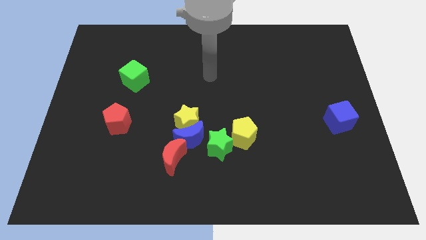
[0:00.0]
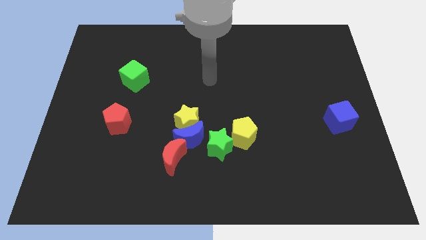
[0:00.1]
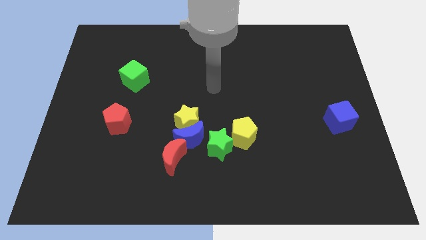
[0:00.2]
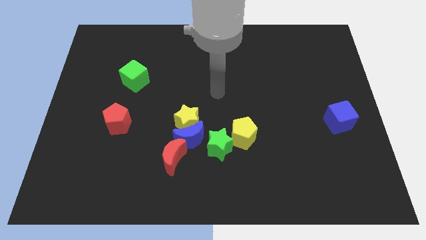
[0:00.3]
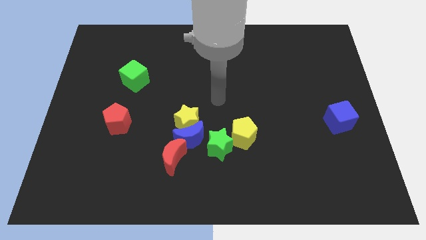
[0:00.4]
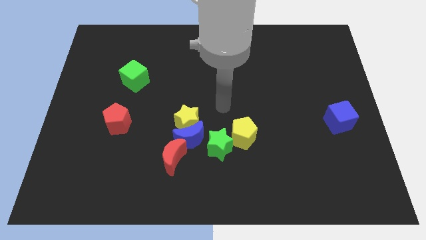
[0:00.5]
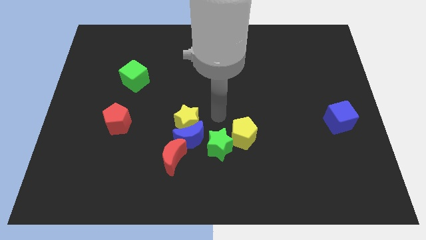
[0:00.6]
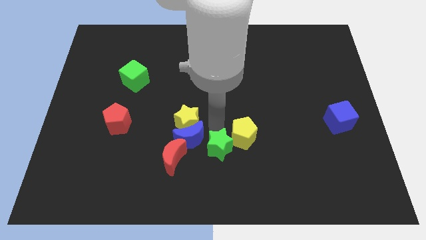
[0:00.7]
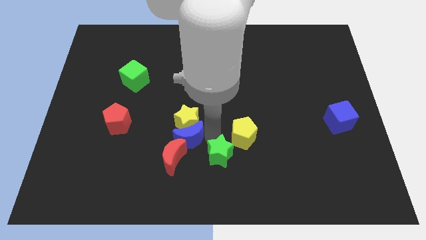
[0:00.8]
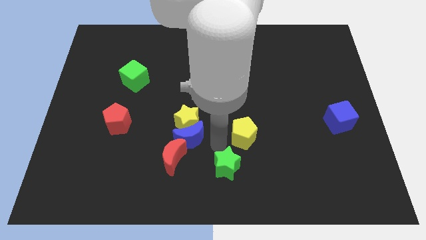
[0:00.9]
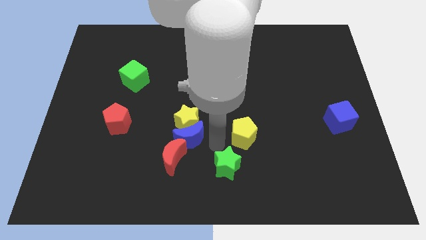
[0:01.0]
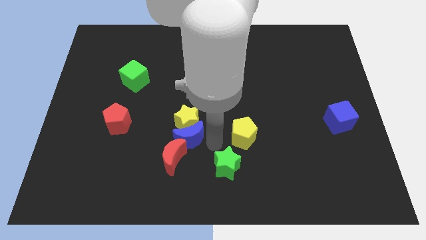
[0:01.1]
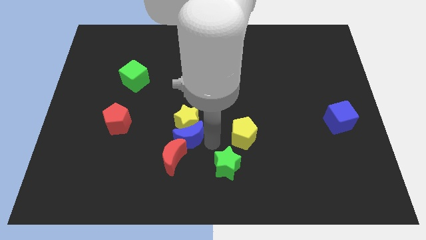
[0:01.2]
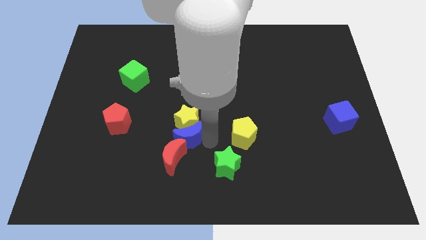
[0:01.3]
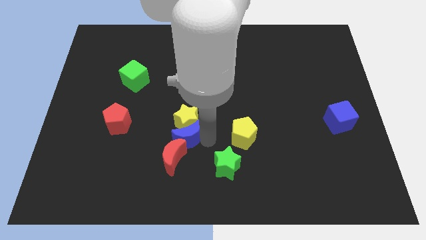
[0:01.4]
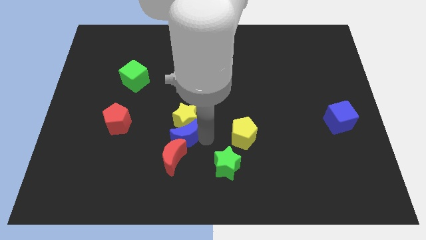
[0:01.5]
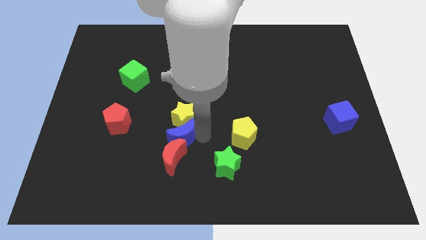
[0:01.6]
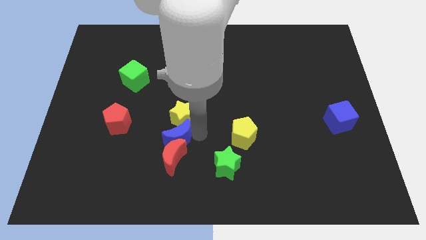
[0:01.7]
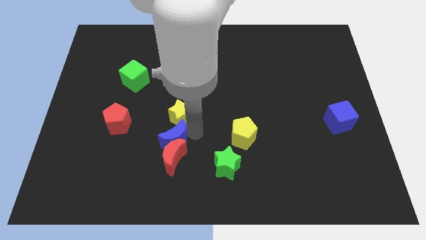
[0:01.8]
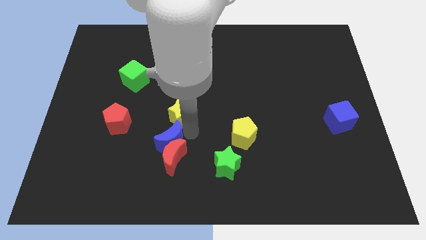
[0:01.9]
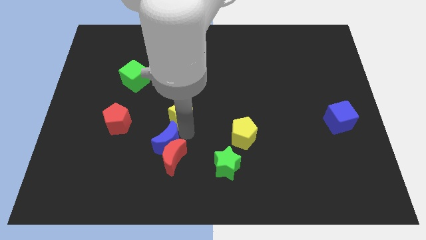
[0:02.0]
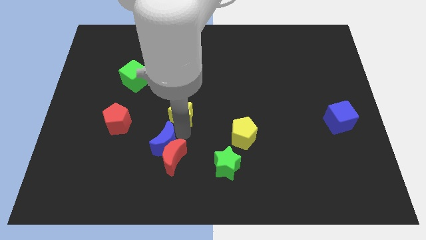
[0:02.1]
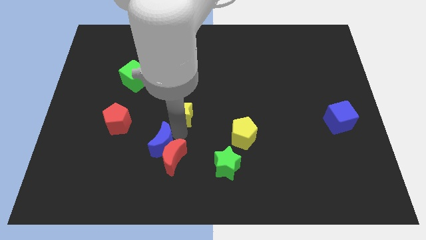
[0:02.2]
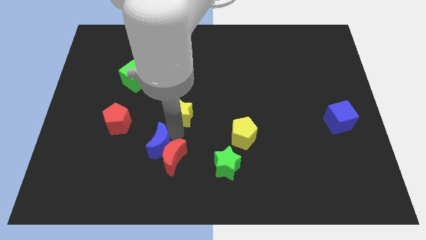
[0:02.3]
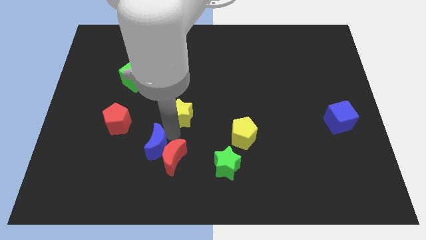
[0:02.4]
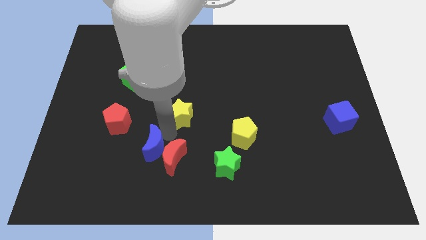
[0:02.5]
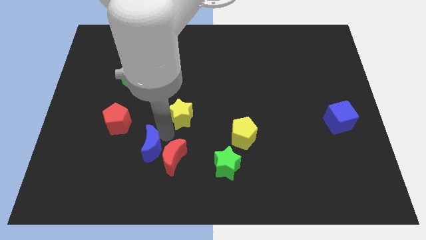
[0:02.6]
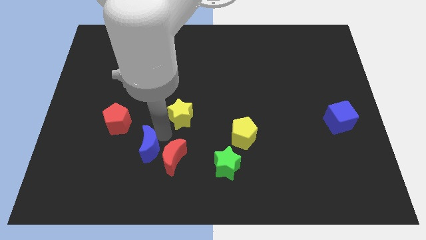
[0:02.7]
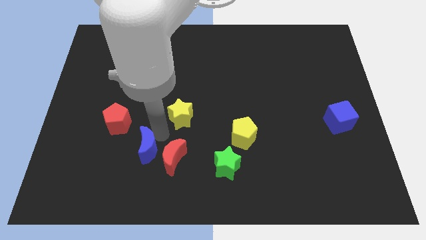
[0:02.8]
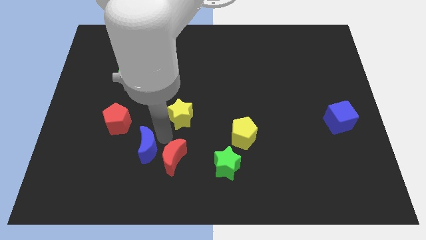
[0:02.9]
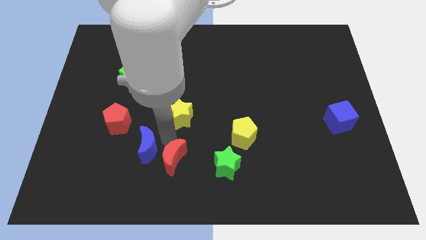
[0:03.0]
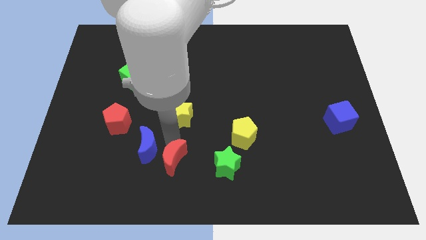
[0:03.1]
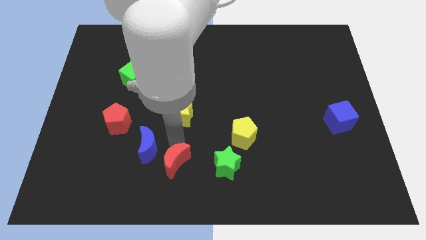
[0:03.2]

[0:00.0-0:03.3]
separate the blue moon from the yellow star, red moon, and green star

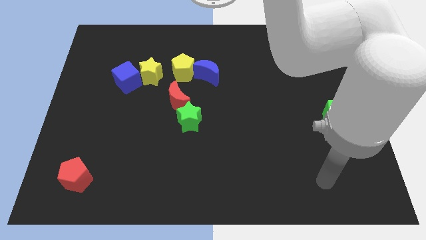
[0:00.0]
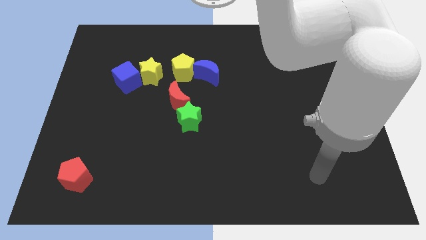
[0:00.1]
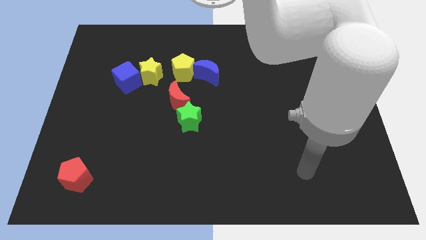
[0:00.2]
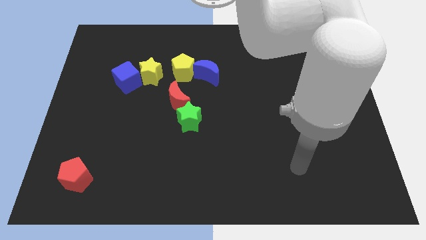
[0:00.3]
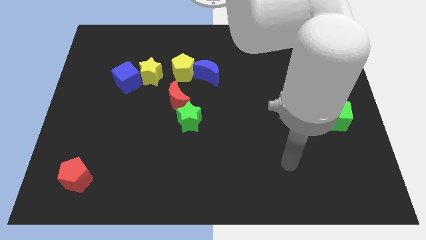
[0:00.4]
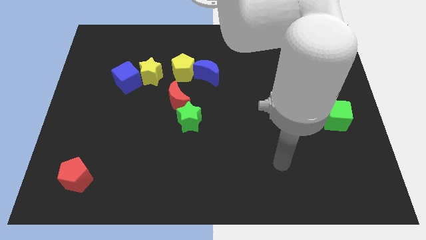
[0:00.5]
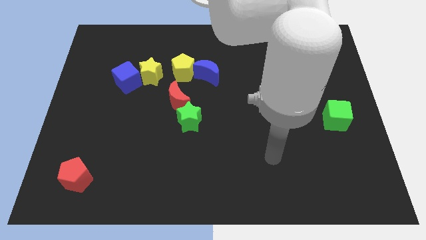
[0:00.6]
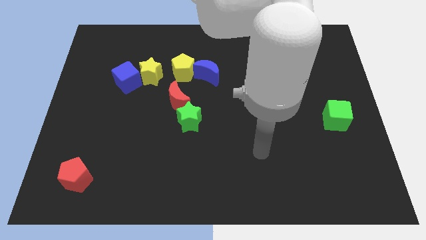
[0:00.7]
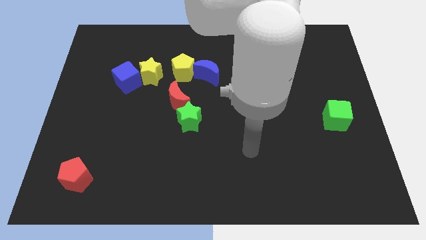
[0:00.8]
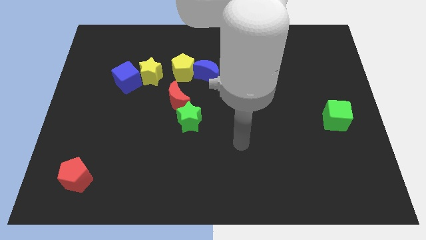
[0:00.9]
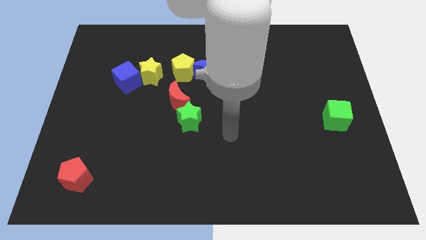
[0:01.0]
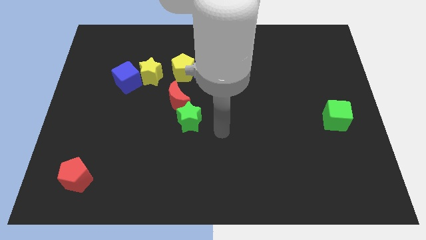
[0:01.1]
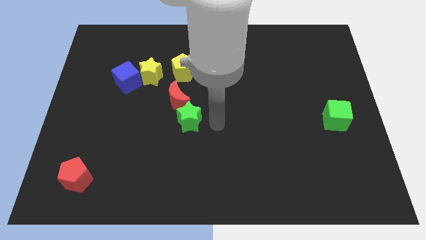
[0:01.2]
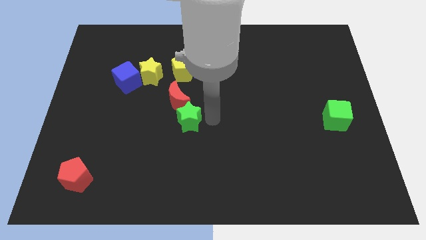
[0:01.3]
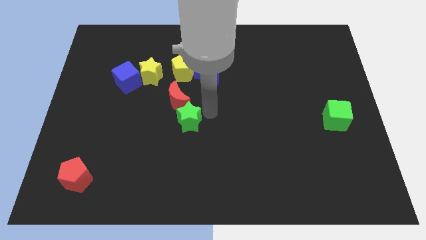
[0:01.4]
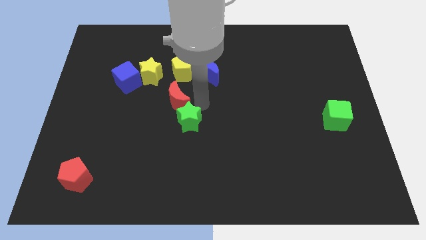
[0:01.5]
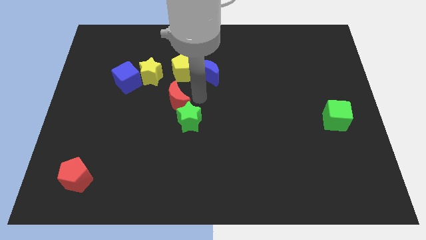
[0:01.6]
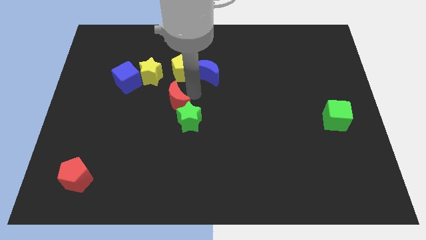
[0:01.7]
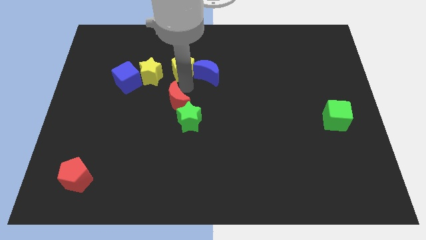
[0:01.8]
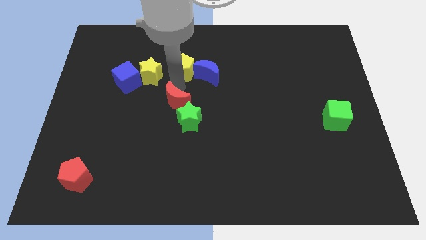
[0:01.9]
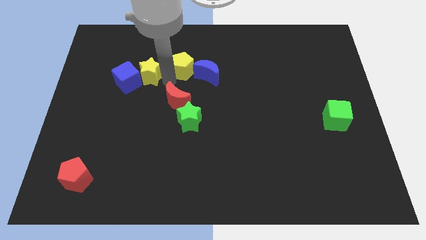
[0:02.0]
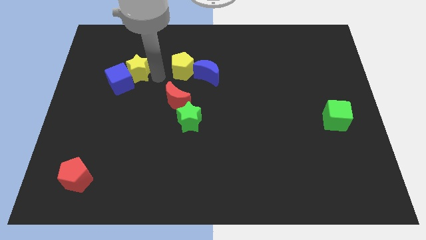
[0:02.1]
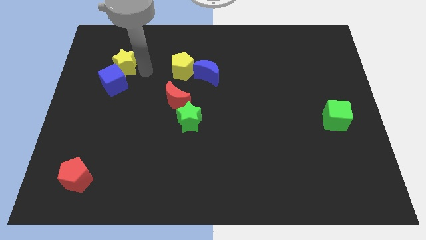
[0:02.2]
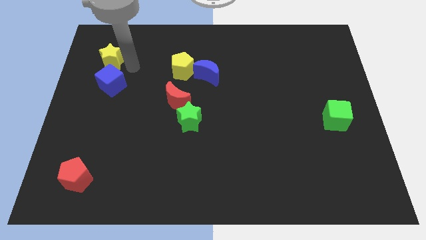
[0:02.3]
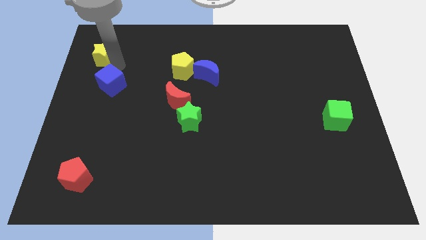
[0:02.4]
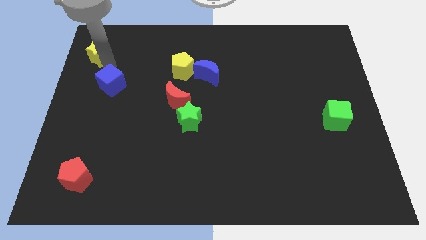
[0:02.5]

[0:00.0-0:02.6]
separate the blue cube from the yellow star

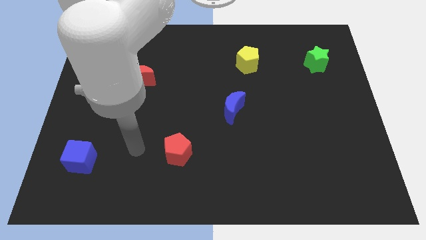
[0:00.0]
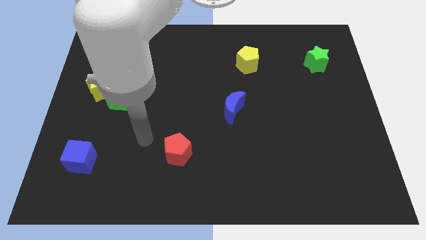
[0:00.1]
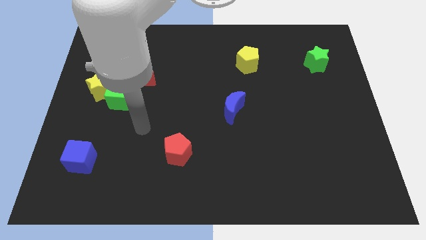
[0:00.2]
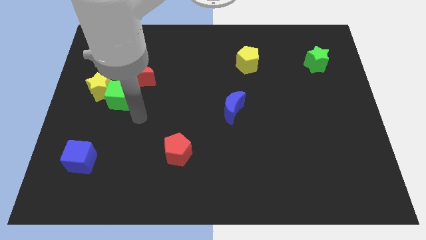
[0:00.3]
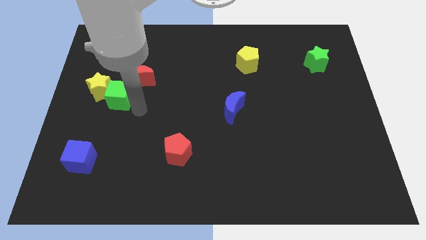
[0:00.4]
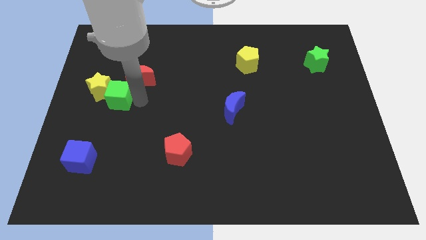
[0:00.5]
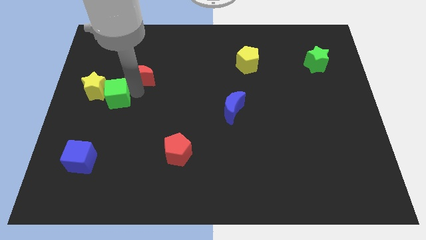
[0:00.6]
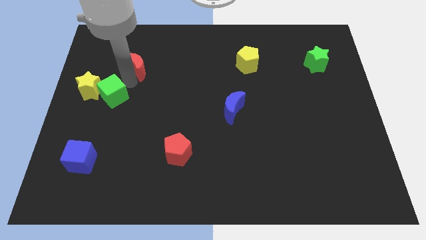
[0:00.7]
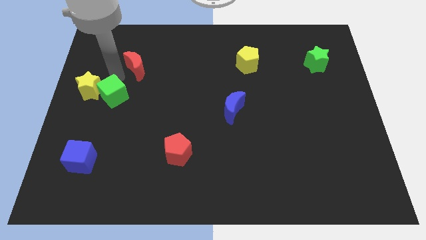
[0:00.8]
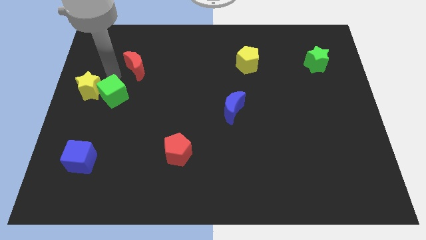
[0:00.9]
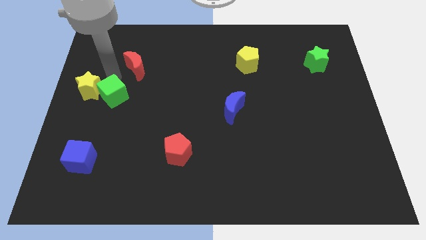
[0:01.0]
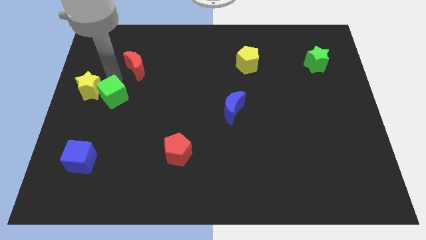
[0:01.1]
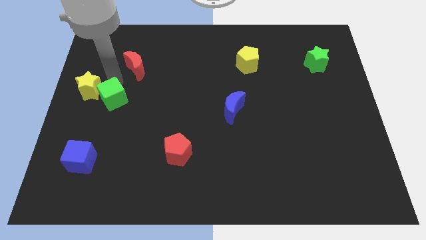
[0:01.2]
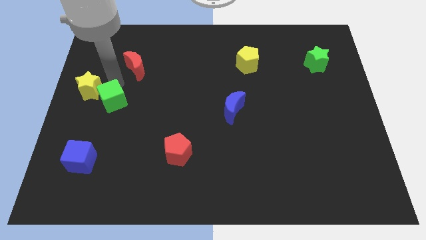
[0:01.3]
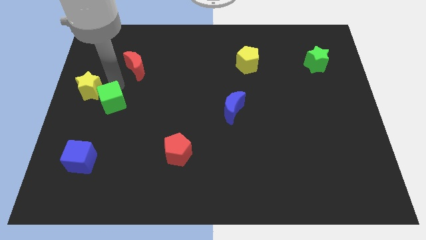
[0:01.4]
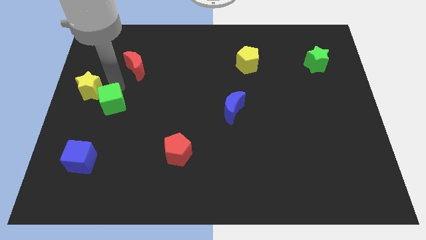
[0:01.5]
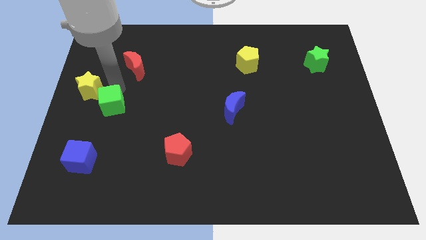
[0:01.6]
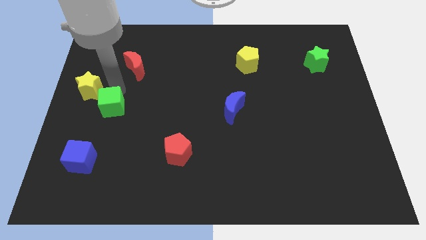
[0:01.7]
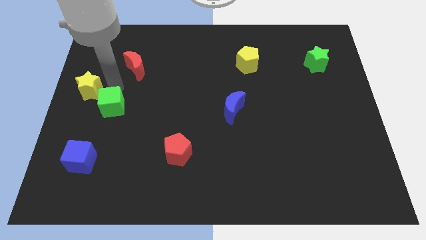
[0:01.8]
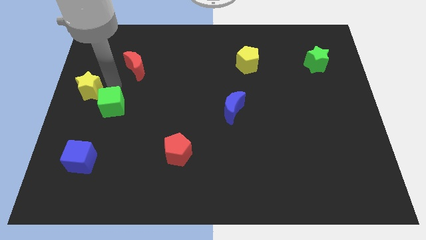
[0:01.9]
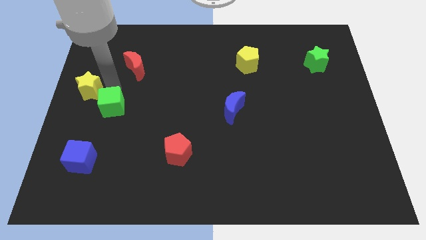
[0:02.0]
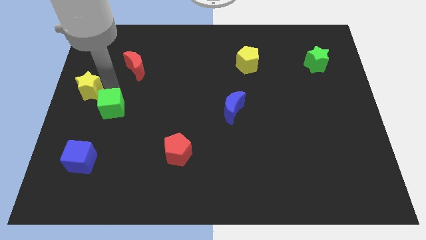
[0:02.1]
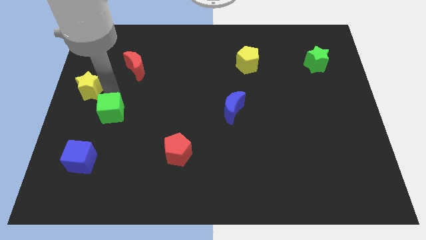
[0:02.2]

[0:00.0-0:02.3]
move the green cube away from the yellow star and red moon

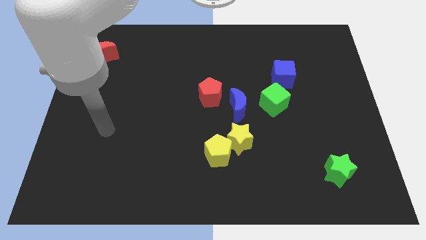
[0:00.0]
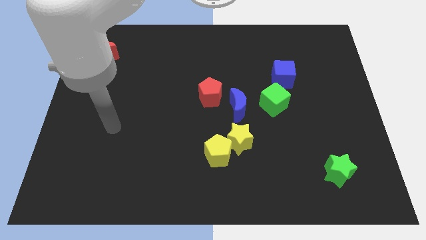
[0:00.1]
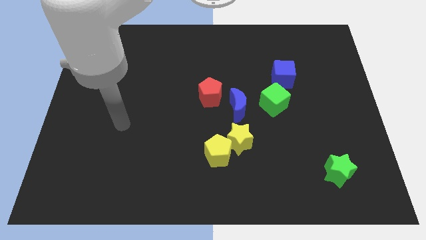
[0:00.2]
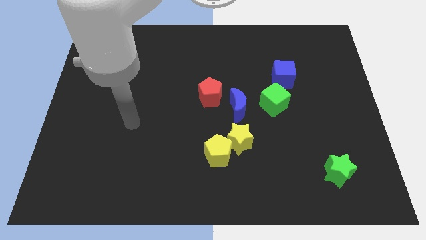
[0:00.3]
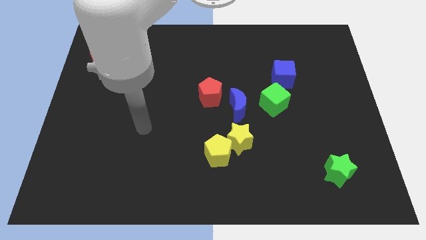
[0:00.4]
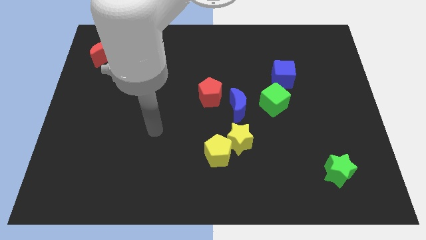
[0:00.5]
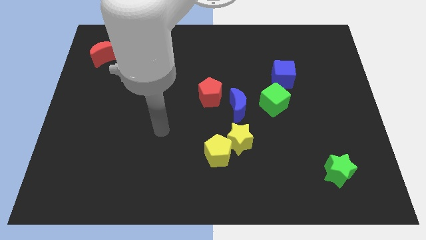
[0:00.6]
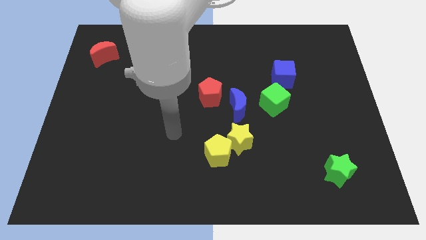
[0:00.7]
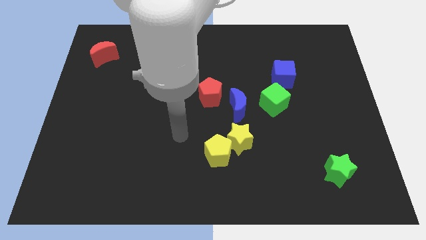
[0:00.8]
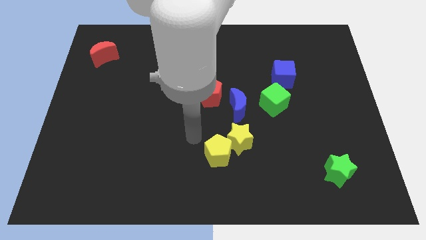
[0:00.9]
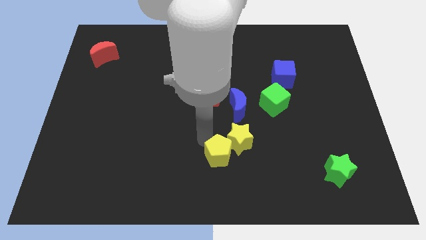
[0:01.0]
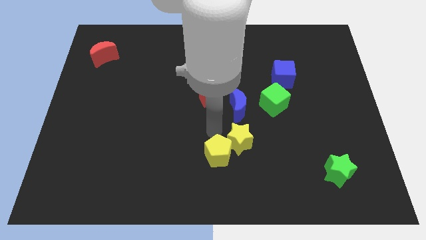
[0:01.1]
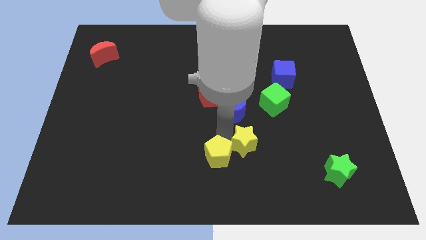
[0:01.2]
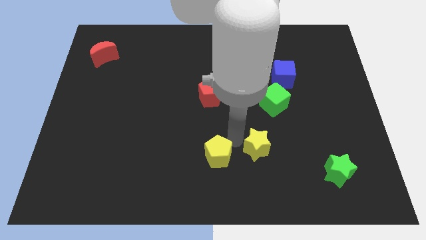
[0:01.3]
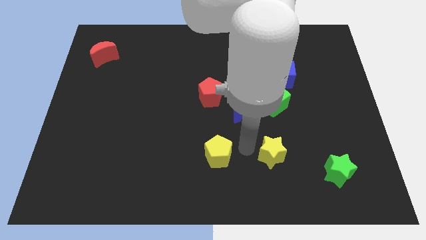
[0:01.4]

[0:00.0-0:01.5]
move the yellow pentagon away from the yellow star
